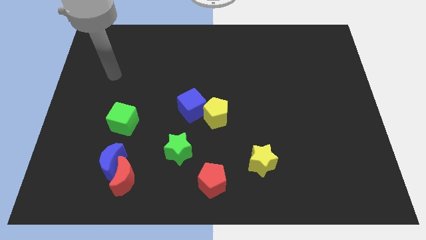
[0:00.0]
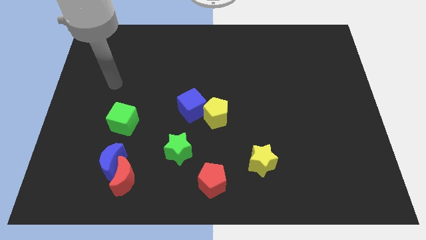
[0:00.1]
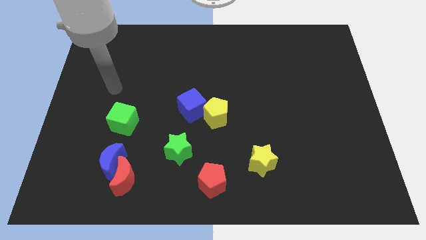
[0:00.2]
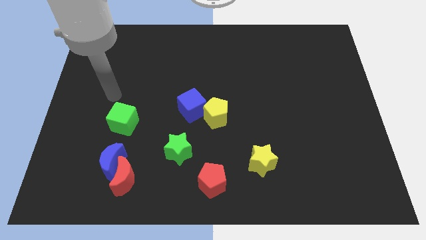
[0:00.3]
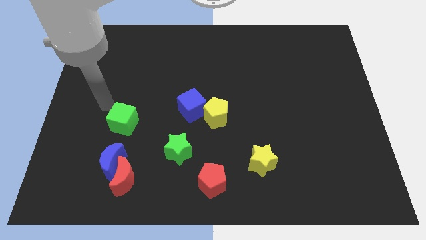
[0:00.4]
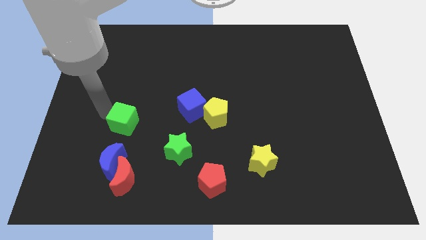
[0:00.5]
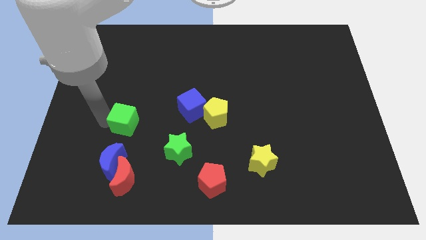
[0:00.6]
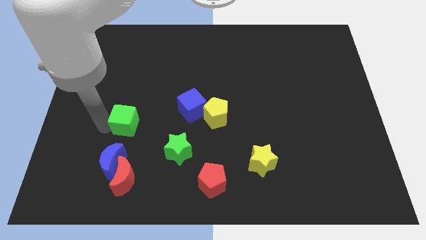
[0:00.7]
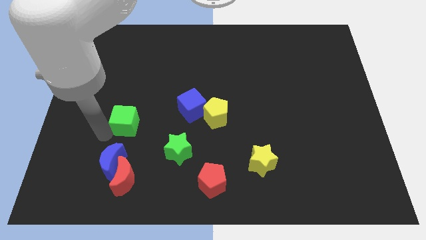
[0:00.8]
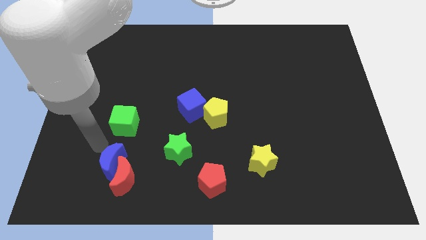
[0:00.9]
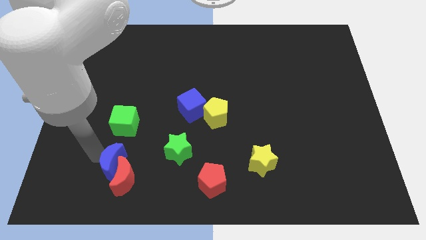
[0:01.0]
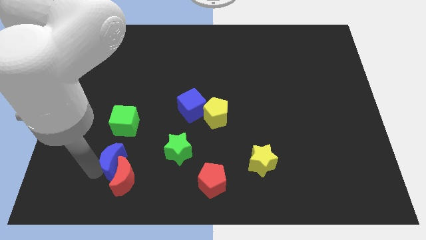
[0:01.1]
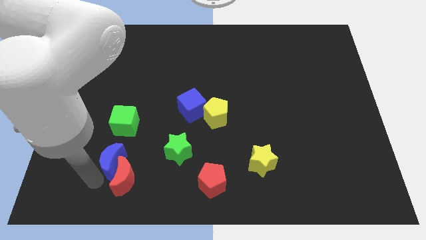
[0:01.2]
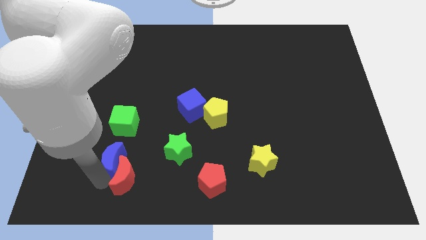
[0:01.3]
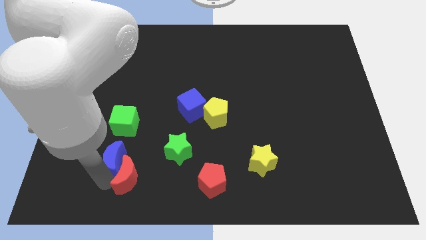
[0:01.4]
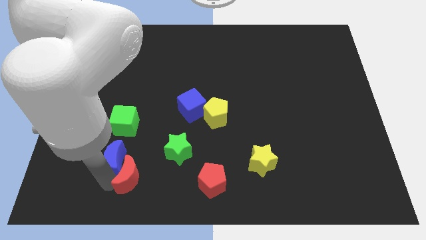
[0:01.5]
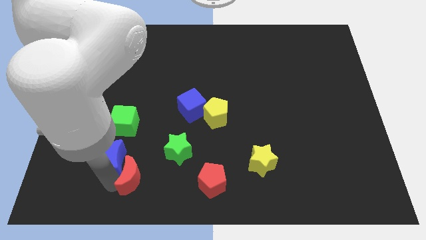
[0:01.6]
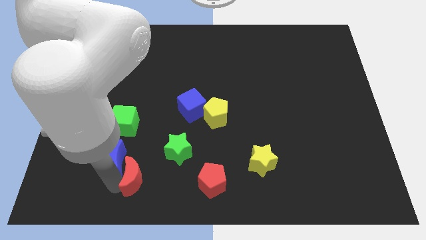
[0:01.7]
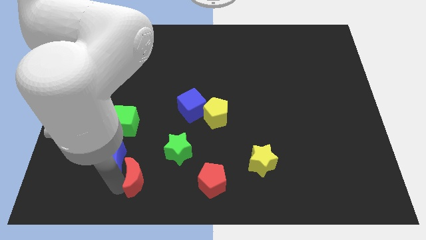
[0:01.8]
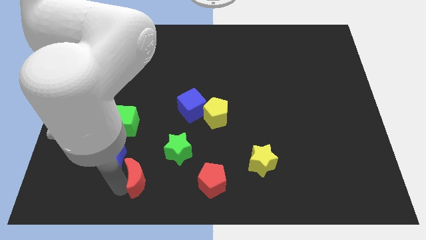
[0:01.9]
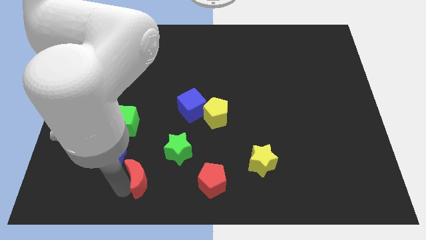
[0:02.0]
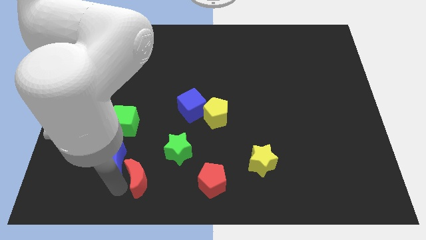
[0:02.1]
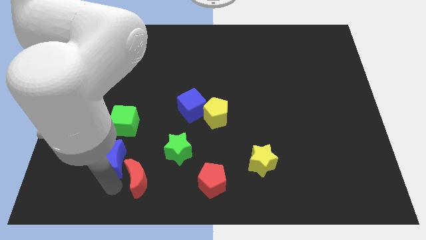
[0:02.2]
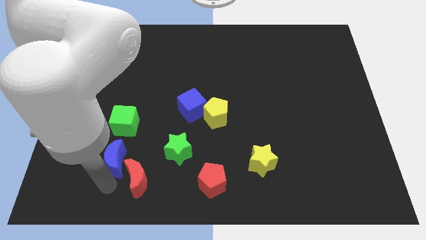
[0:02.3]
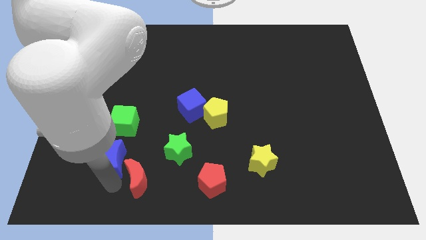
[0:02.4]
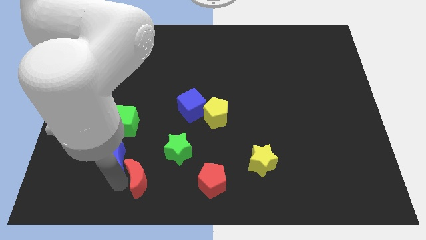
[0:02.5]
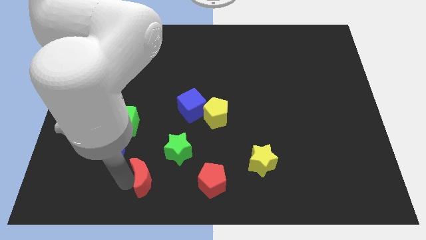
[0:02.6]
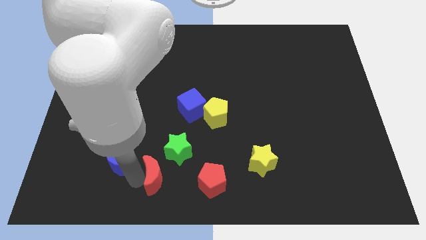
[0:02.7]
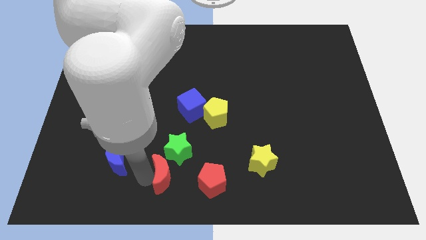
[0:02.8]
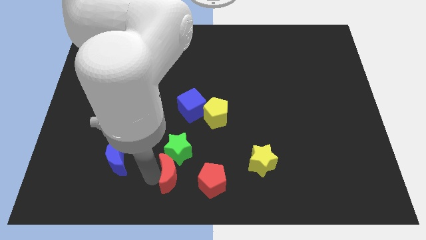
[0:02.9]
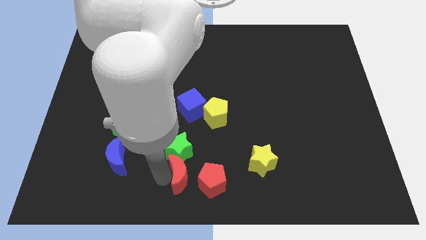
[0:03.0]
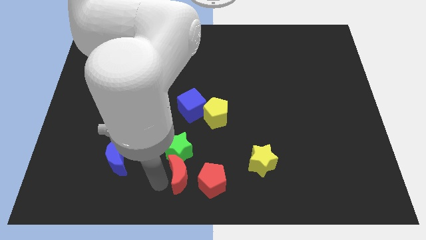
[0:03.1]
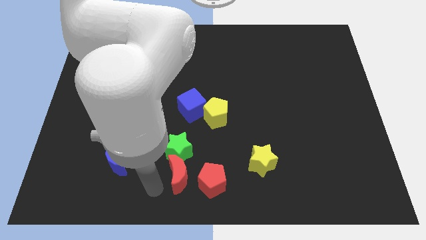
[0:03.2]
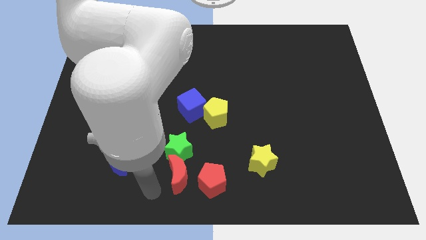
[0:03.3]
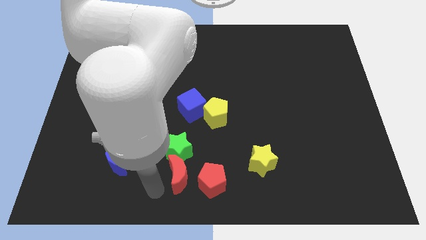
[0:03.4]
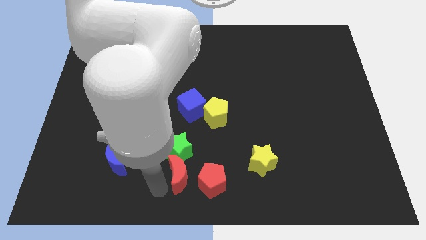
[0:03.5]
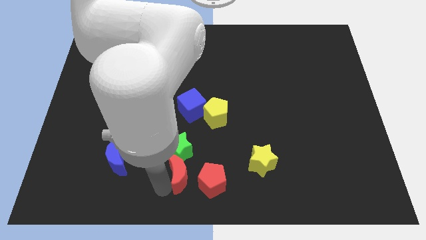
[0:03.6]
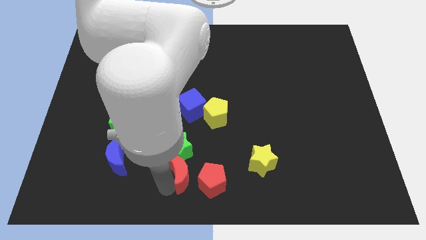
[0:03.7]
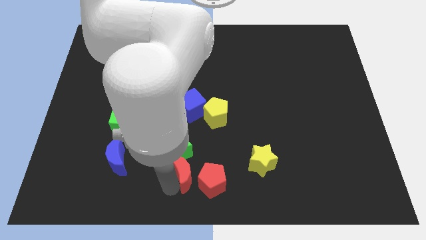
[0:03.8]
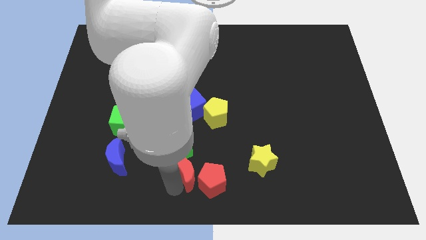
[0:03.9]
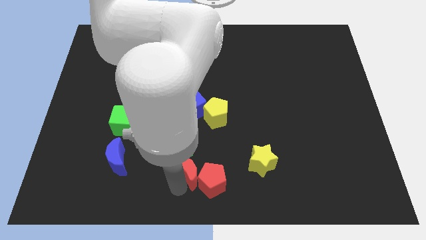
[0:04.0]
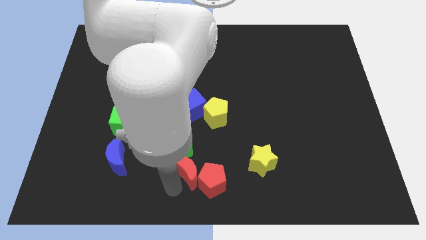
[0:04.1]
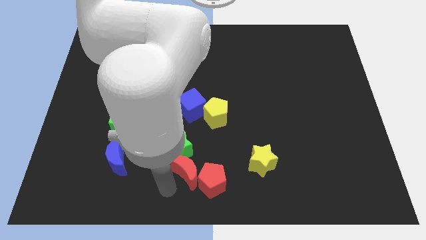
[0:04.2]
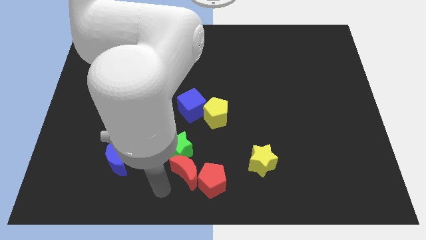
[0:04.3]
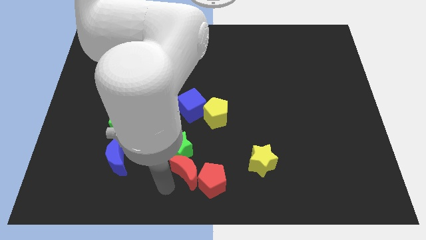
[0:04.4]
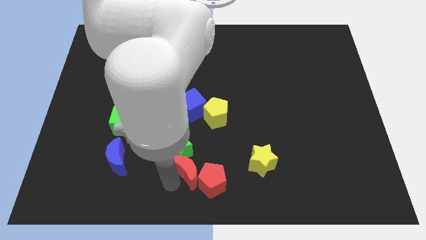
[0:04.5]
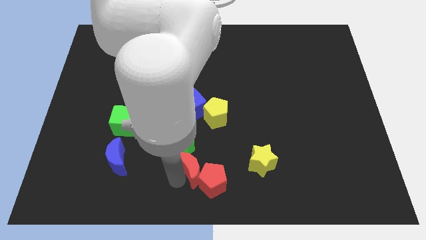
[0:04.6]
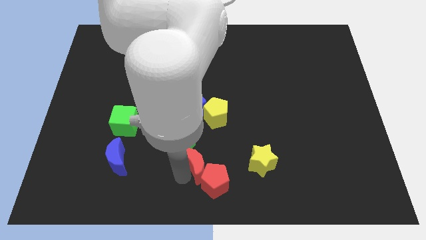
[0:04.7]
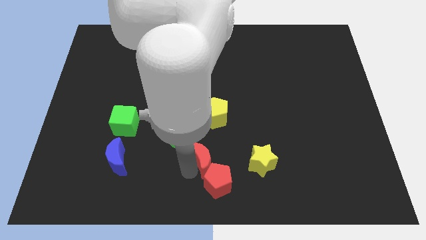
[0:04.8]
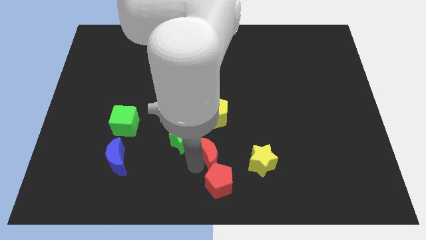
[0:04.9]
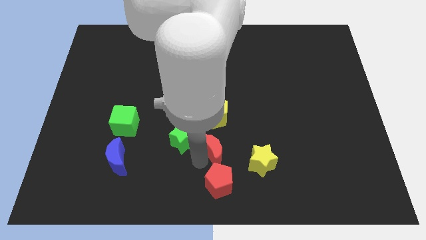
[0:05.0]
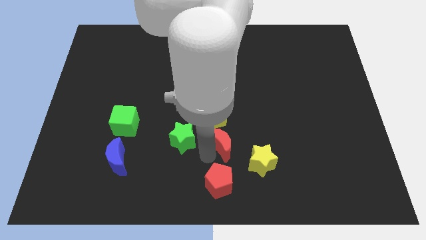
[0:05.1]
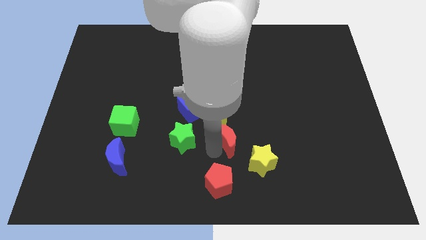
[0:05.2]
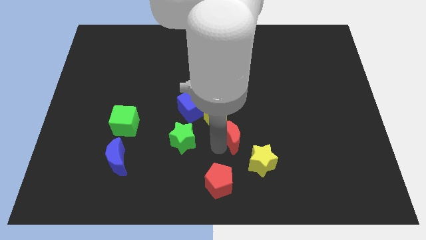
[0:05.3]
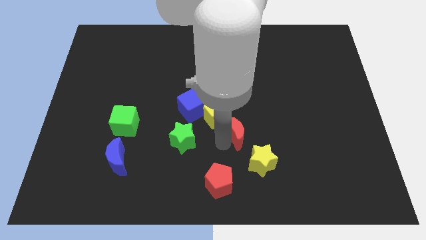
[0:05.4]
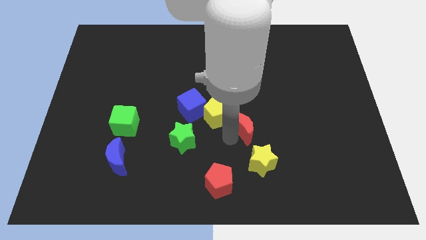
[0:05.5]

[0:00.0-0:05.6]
move the red moon right of the yellow pentagon

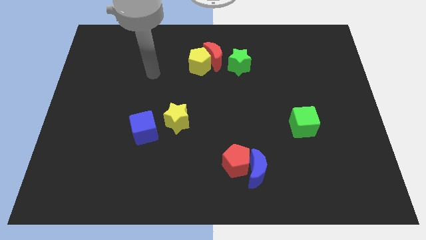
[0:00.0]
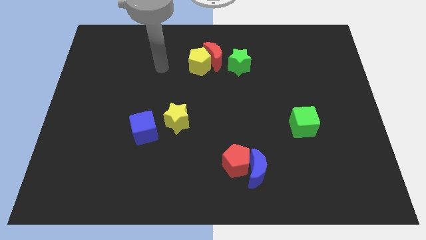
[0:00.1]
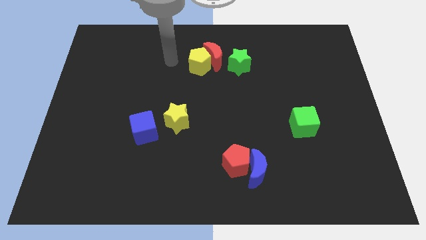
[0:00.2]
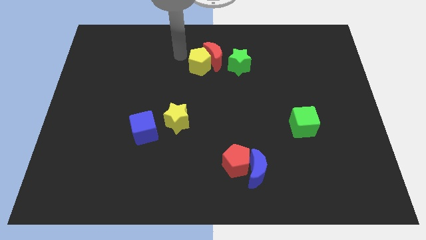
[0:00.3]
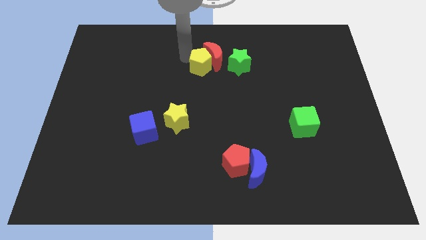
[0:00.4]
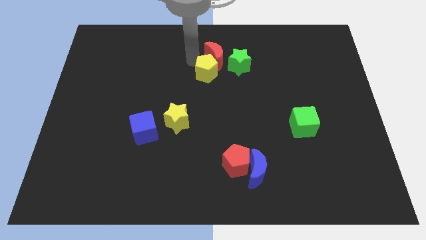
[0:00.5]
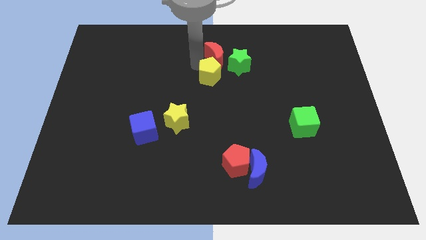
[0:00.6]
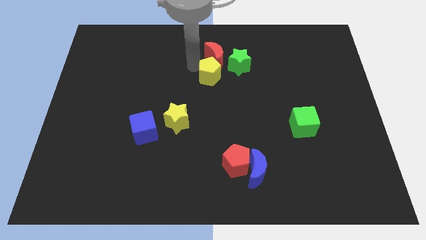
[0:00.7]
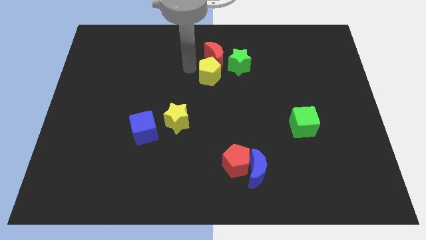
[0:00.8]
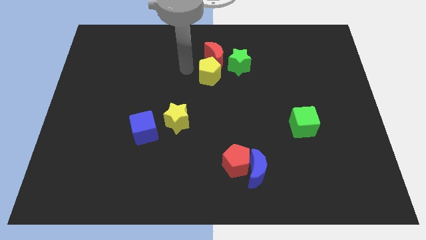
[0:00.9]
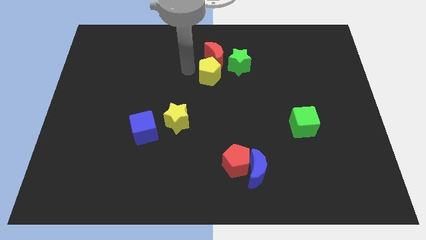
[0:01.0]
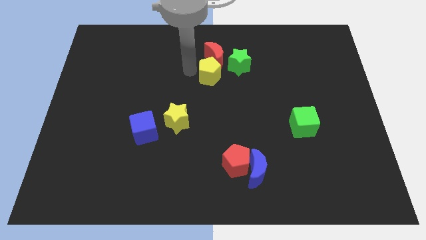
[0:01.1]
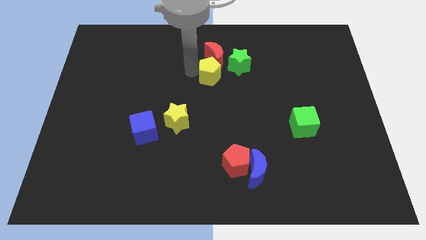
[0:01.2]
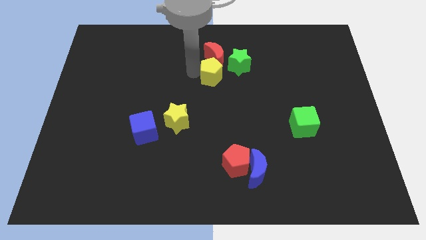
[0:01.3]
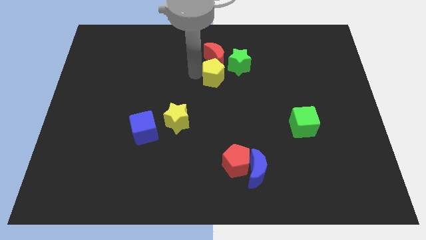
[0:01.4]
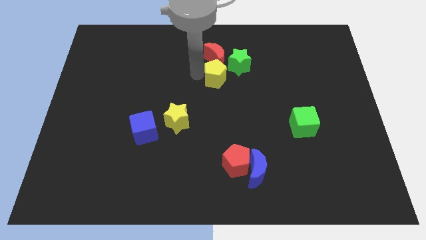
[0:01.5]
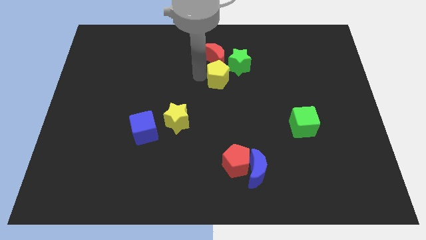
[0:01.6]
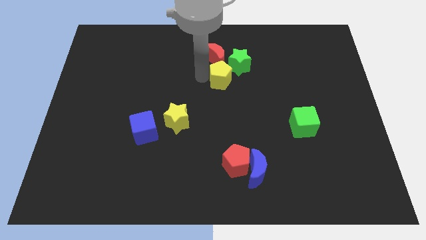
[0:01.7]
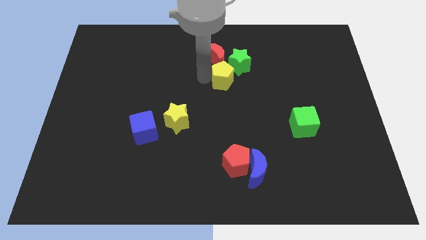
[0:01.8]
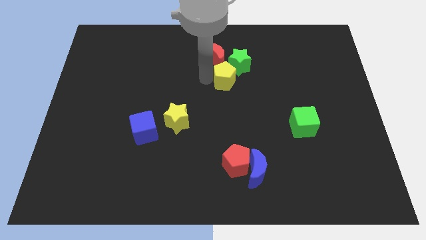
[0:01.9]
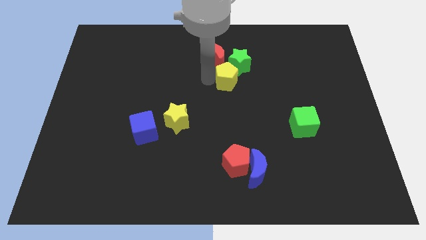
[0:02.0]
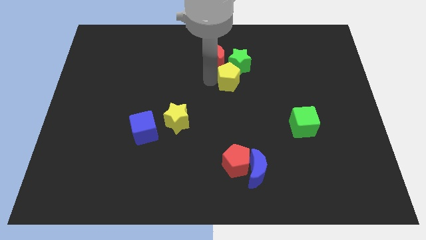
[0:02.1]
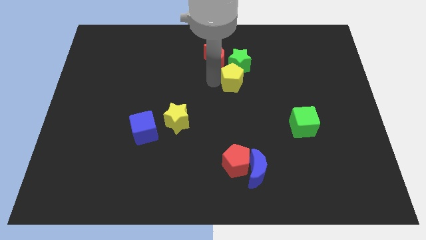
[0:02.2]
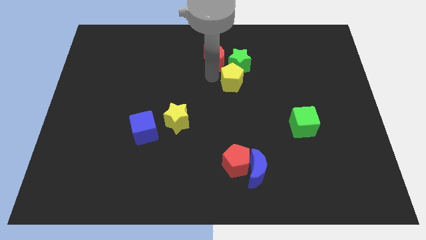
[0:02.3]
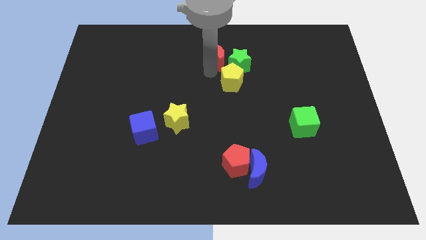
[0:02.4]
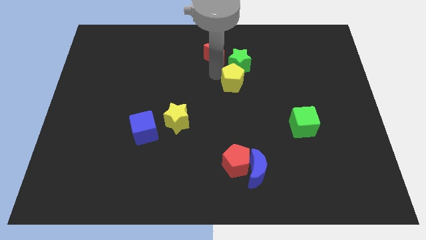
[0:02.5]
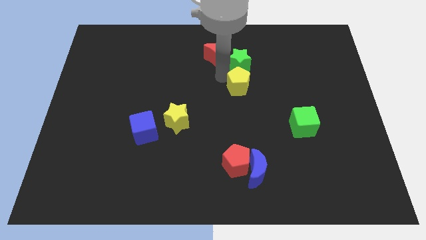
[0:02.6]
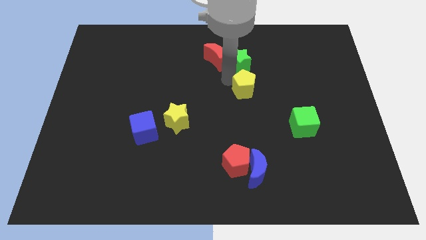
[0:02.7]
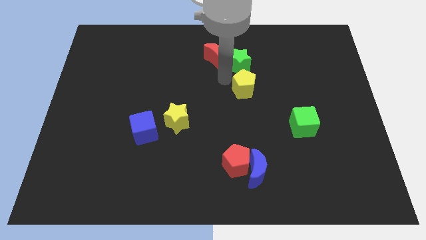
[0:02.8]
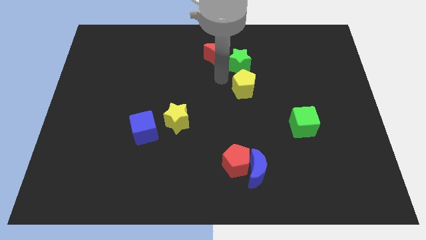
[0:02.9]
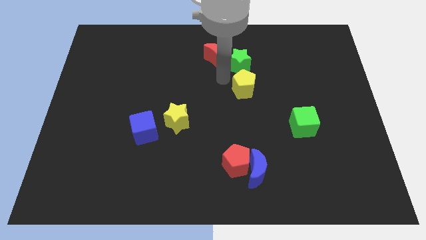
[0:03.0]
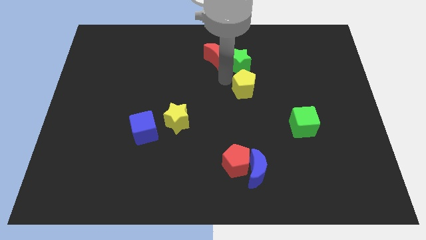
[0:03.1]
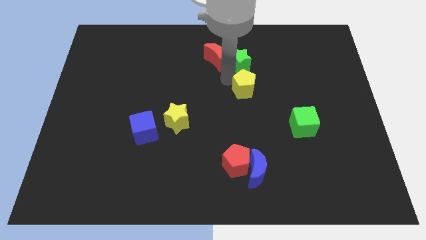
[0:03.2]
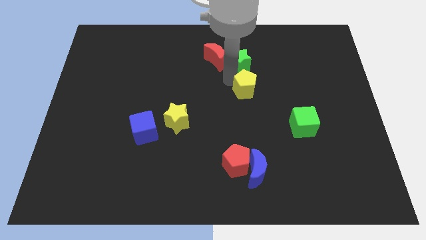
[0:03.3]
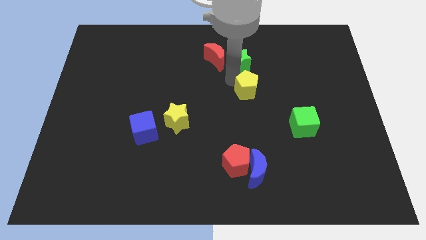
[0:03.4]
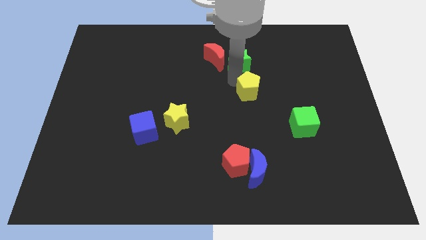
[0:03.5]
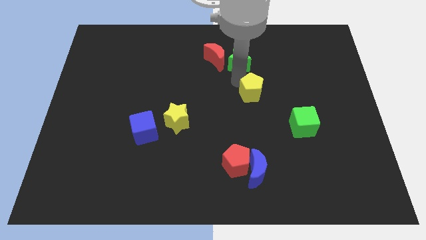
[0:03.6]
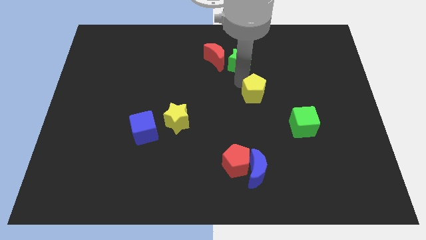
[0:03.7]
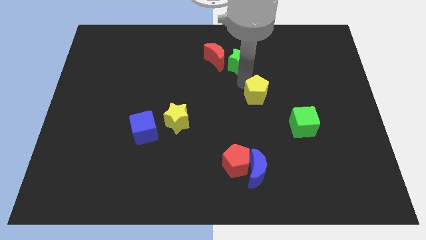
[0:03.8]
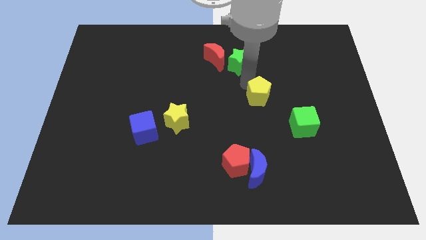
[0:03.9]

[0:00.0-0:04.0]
put the yellow pentagon diagonally up and to the left of the green cube
